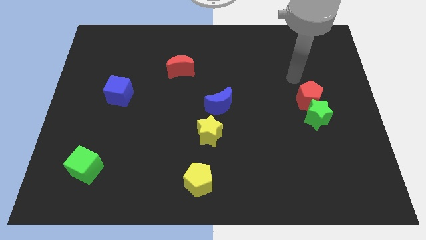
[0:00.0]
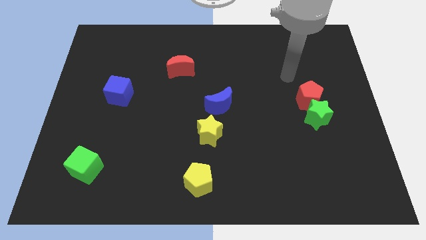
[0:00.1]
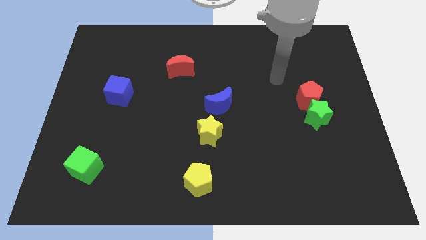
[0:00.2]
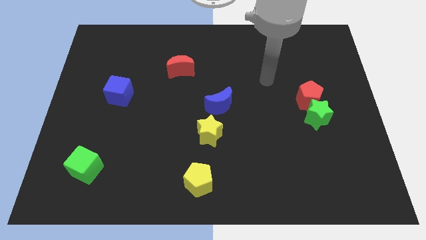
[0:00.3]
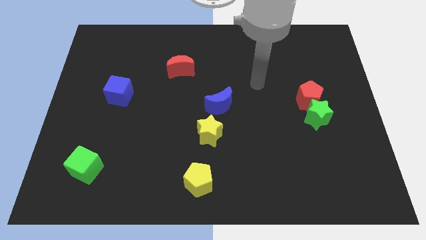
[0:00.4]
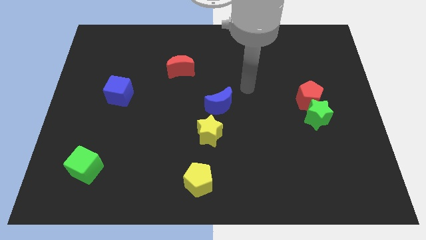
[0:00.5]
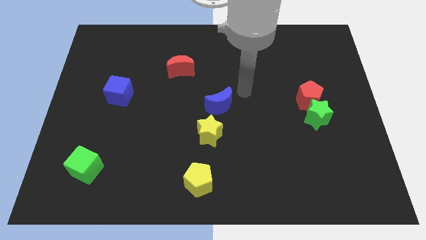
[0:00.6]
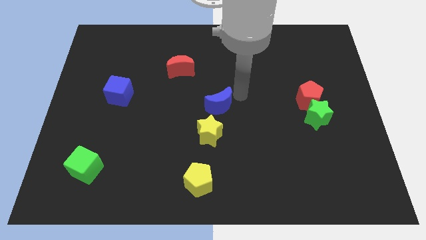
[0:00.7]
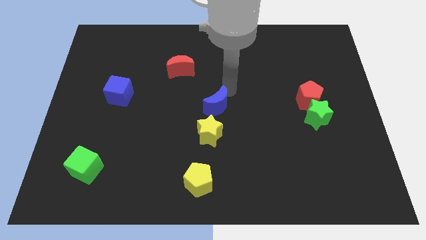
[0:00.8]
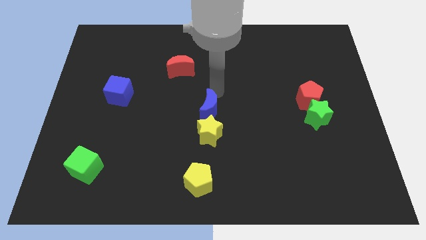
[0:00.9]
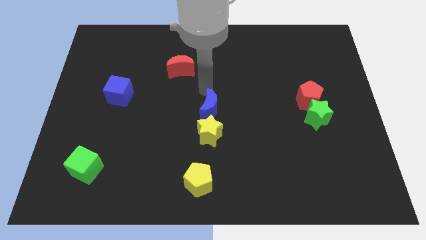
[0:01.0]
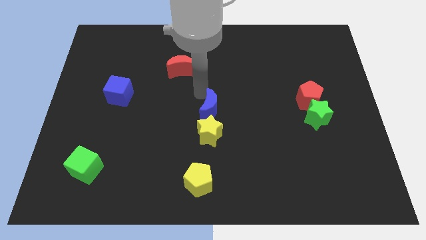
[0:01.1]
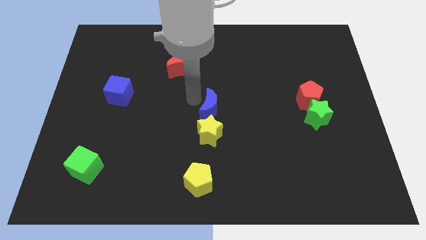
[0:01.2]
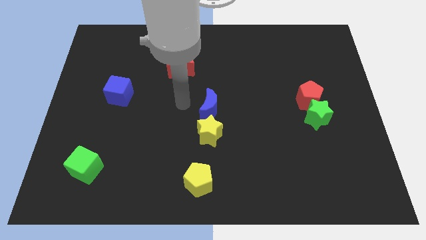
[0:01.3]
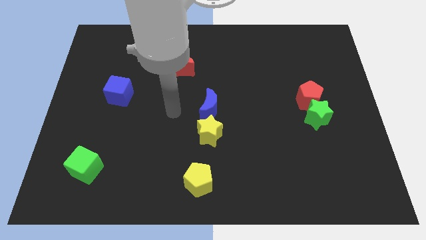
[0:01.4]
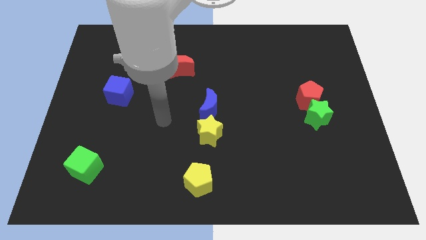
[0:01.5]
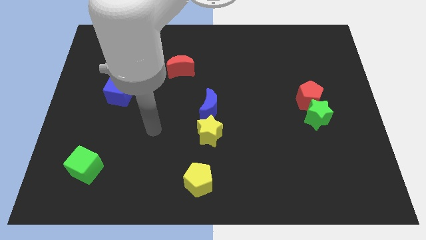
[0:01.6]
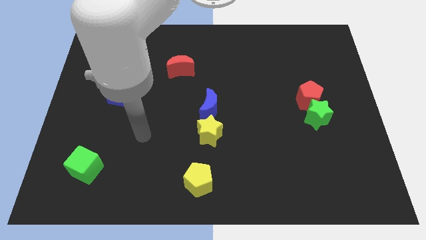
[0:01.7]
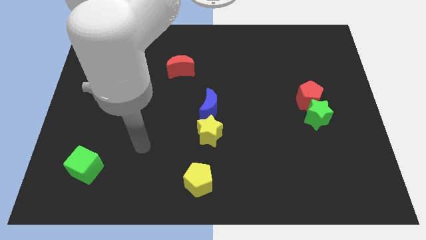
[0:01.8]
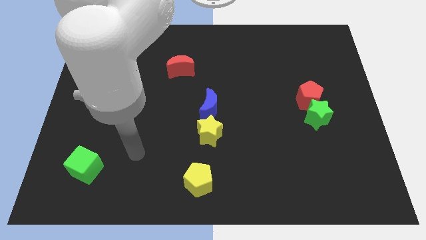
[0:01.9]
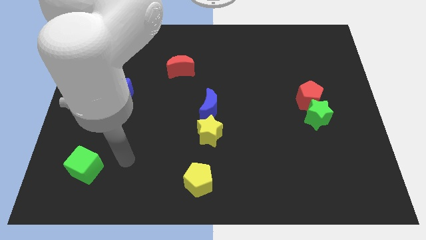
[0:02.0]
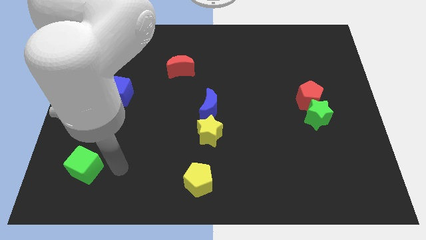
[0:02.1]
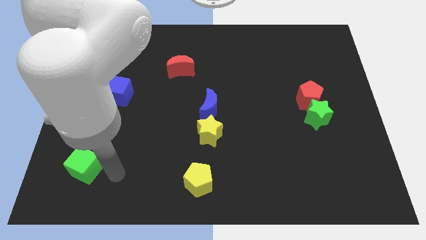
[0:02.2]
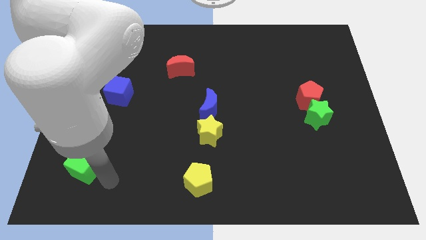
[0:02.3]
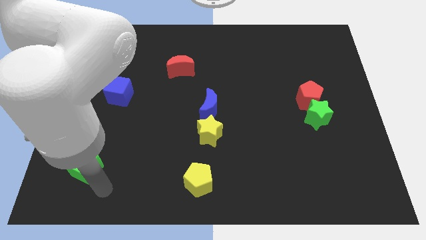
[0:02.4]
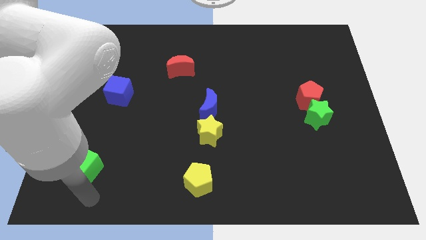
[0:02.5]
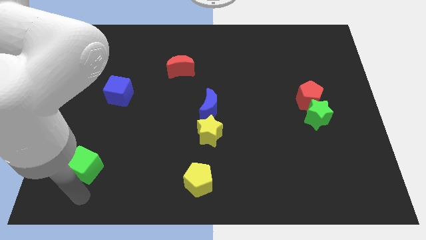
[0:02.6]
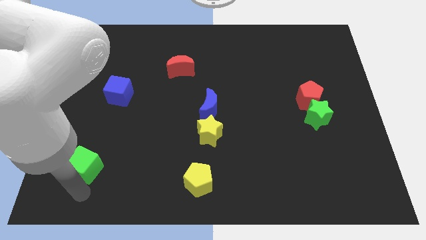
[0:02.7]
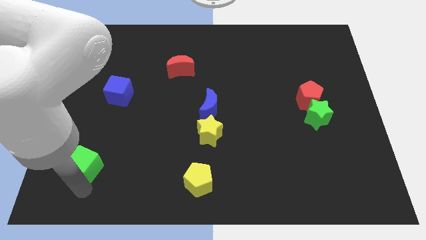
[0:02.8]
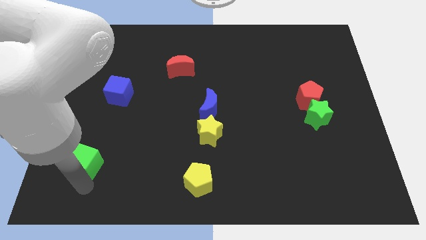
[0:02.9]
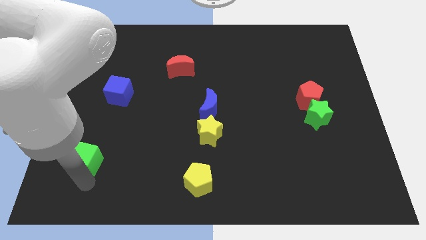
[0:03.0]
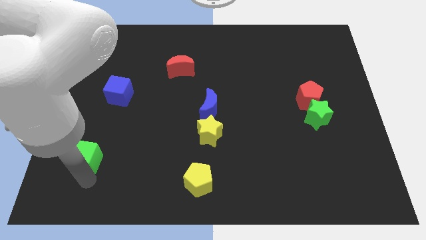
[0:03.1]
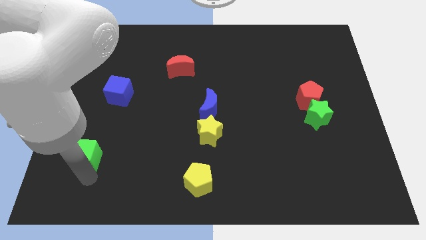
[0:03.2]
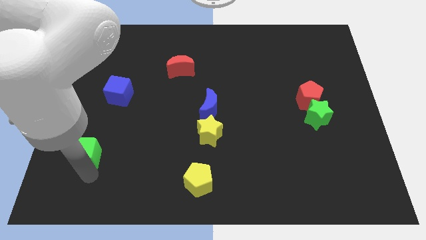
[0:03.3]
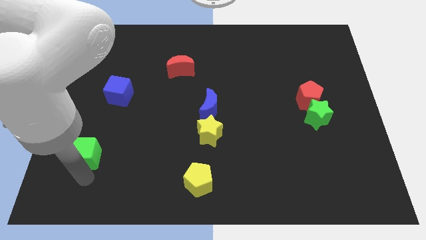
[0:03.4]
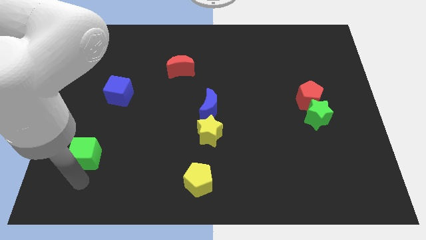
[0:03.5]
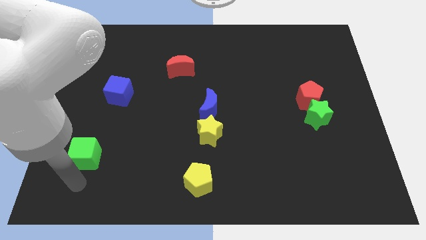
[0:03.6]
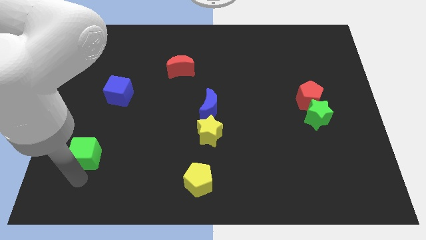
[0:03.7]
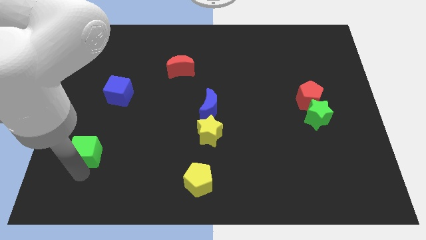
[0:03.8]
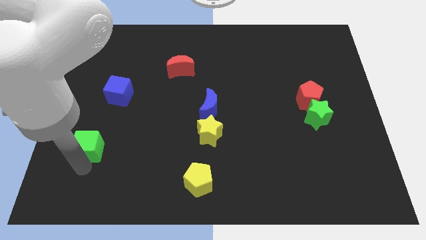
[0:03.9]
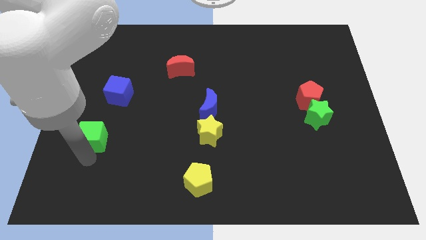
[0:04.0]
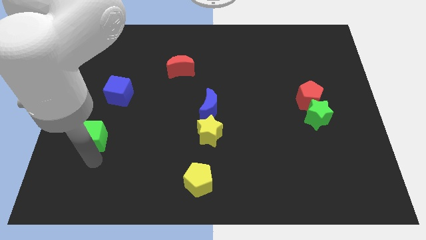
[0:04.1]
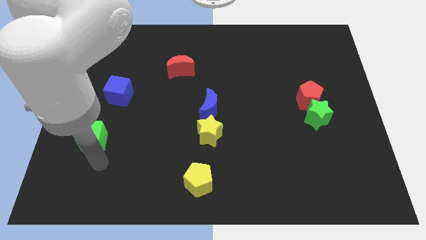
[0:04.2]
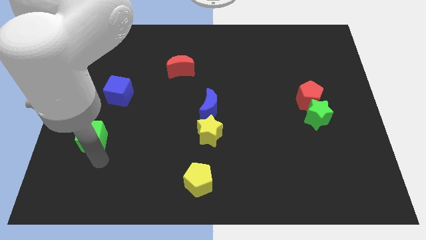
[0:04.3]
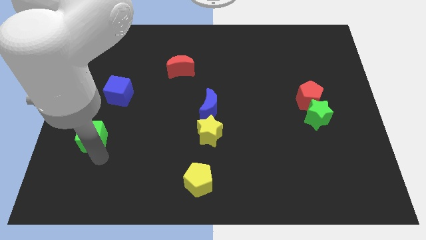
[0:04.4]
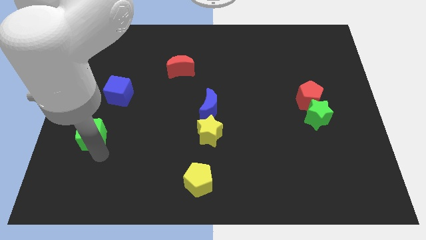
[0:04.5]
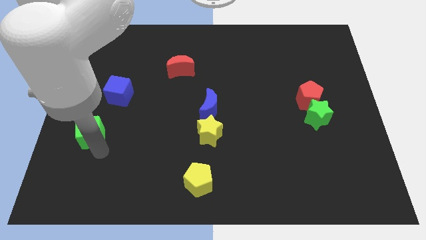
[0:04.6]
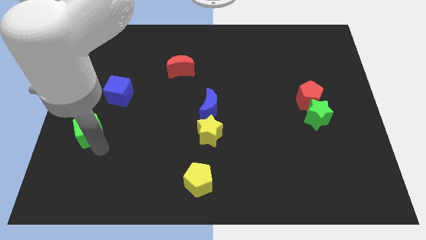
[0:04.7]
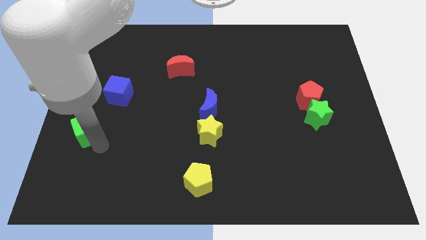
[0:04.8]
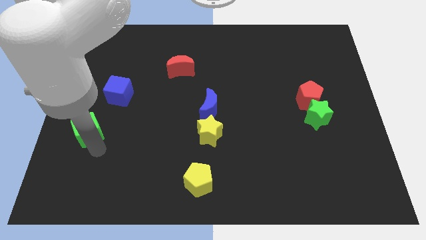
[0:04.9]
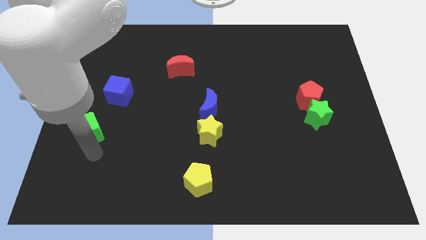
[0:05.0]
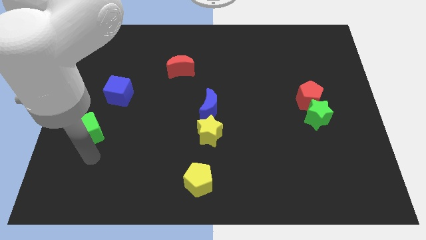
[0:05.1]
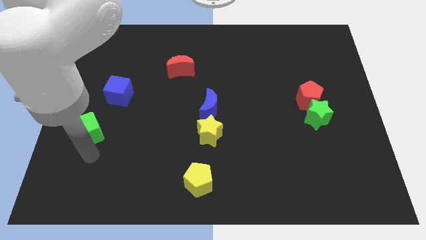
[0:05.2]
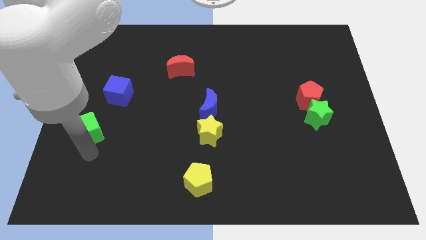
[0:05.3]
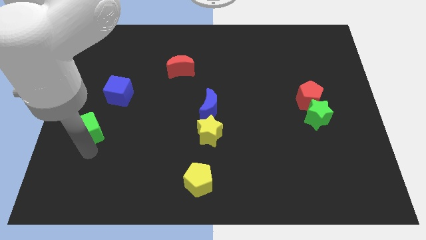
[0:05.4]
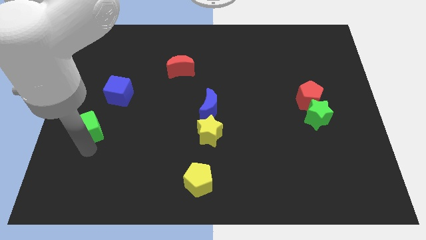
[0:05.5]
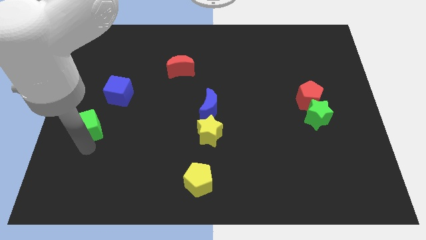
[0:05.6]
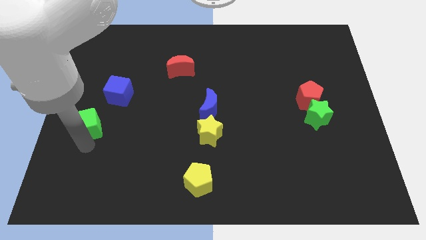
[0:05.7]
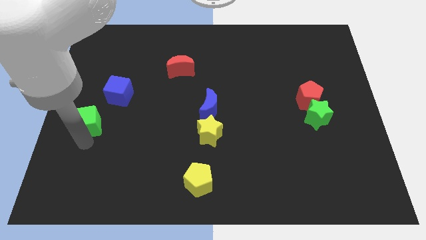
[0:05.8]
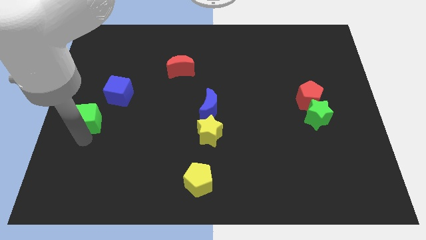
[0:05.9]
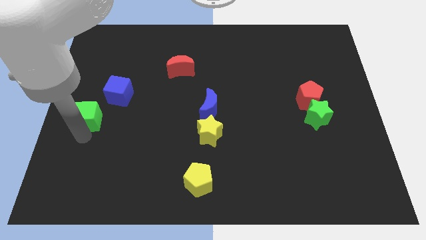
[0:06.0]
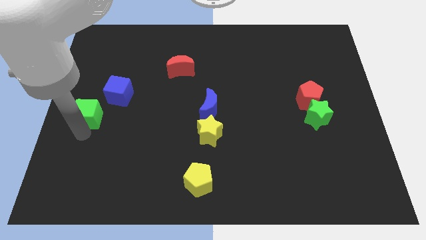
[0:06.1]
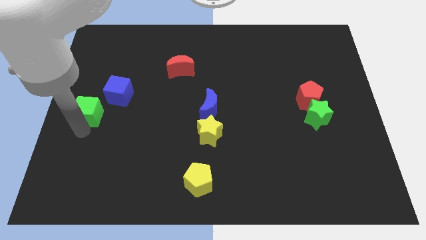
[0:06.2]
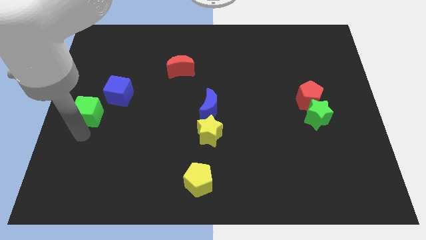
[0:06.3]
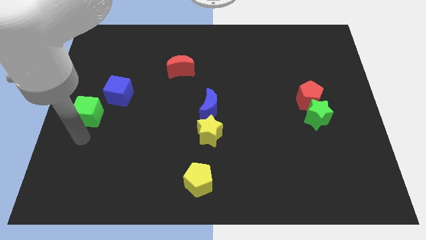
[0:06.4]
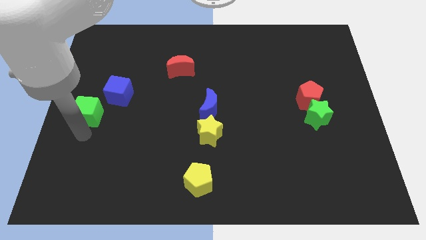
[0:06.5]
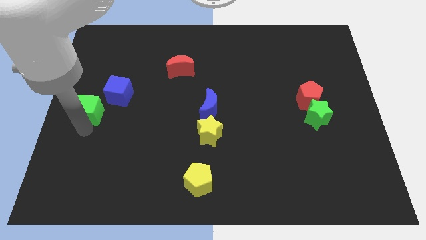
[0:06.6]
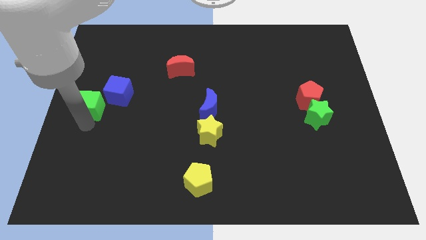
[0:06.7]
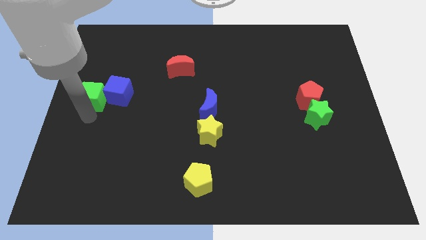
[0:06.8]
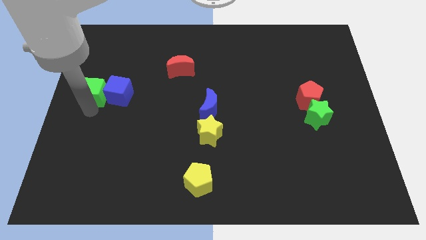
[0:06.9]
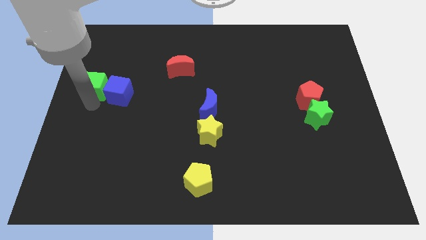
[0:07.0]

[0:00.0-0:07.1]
move the green cube up

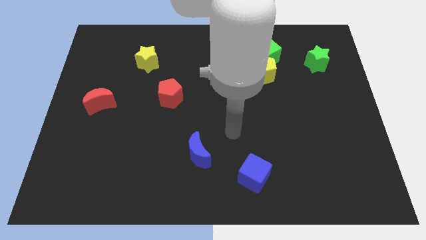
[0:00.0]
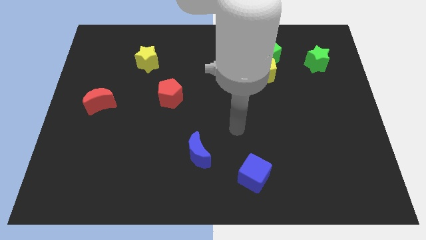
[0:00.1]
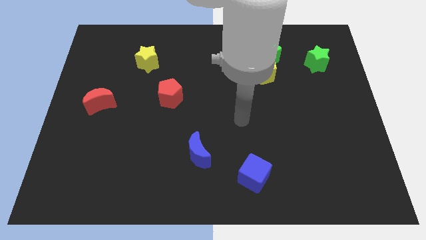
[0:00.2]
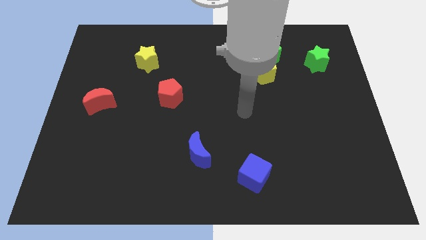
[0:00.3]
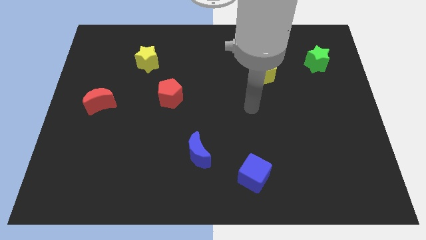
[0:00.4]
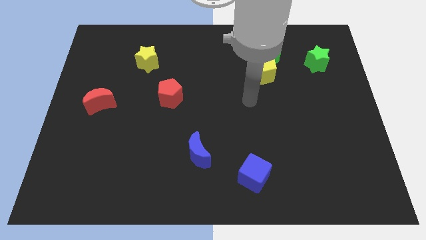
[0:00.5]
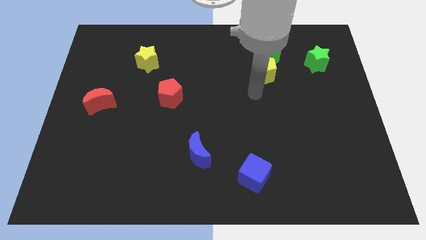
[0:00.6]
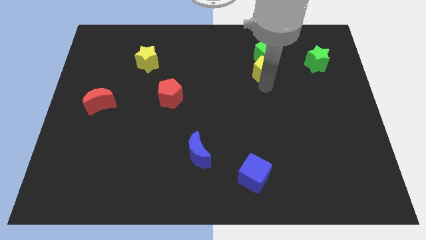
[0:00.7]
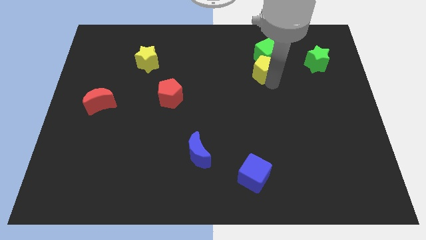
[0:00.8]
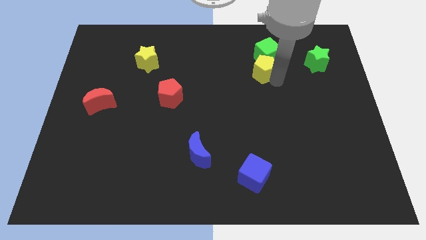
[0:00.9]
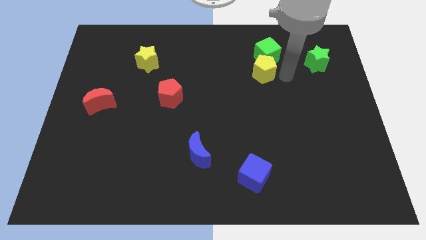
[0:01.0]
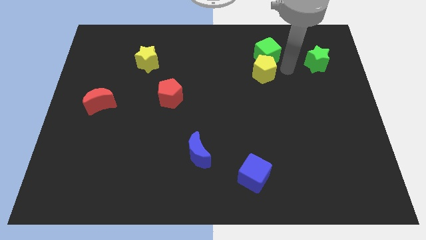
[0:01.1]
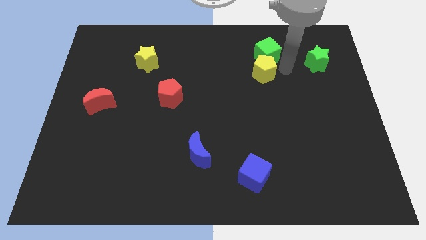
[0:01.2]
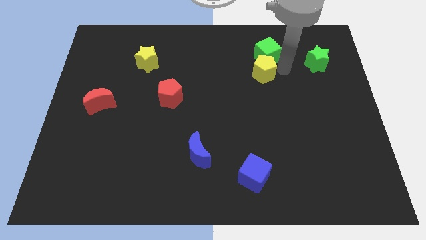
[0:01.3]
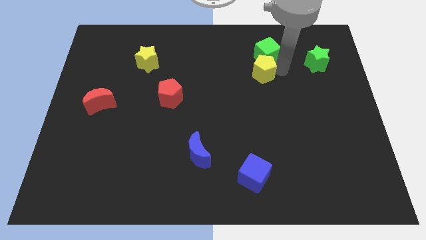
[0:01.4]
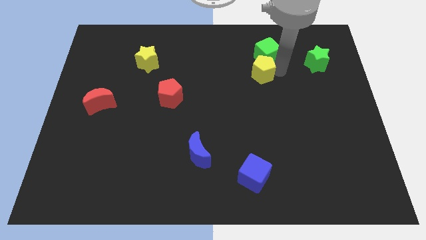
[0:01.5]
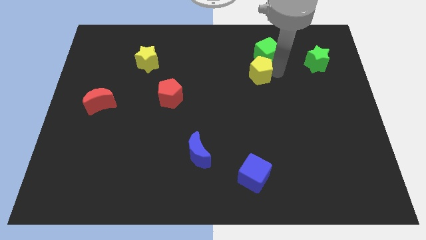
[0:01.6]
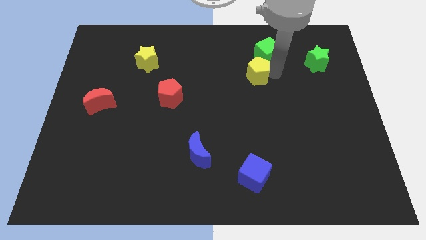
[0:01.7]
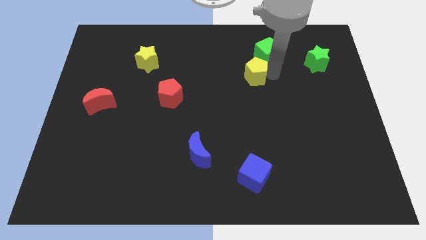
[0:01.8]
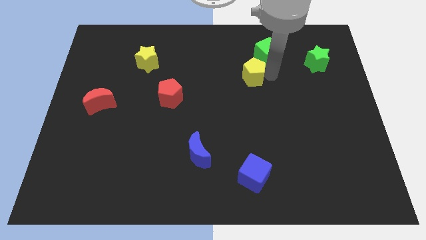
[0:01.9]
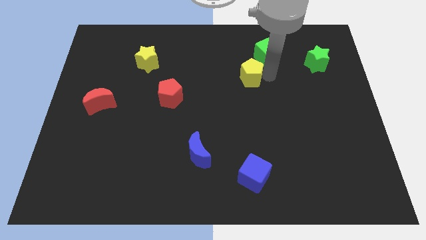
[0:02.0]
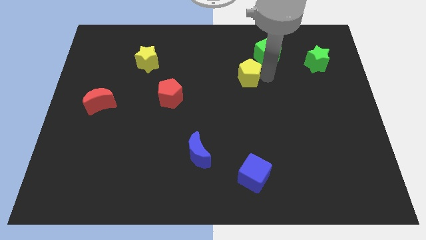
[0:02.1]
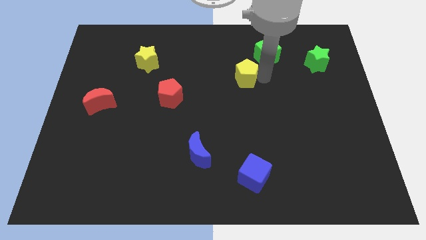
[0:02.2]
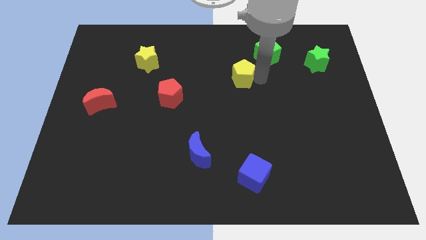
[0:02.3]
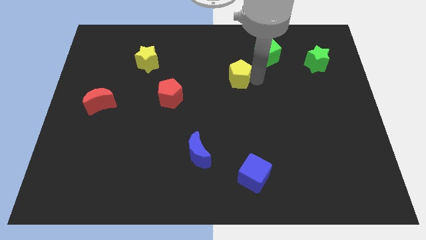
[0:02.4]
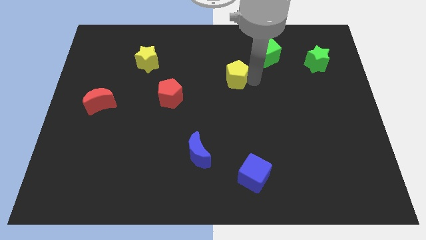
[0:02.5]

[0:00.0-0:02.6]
slide the yellow pentagon a little to the left
